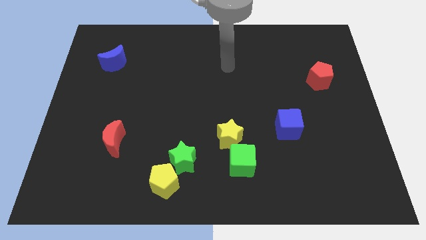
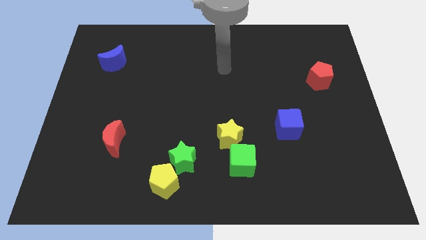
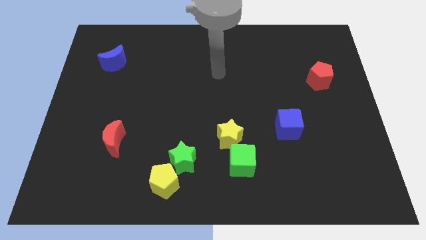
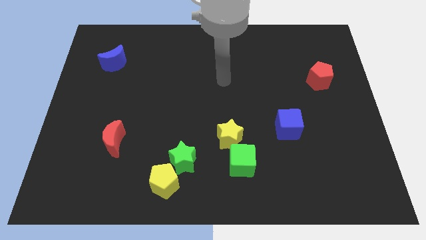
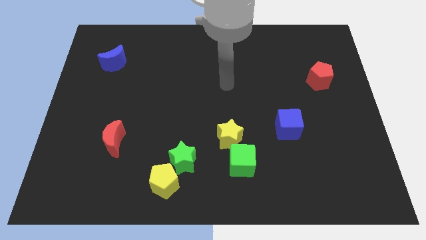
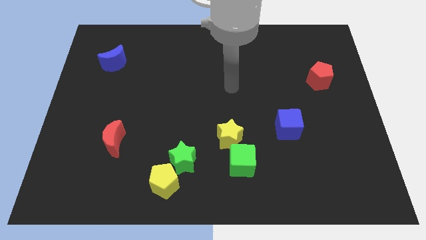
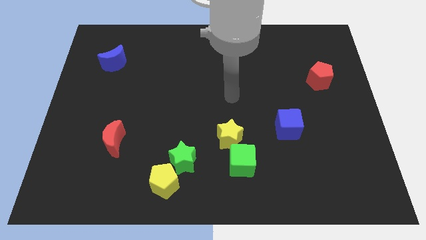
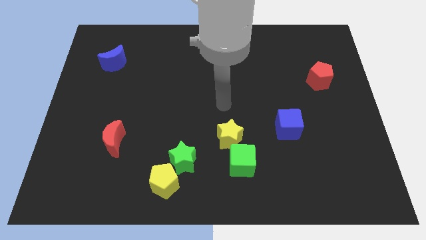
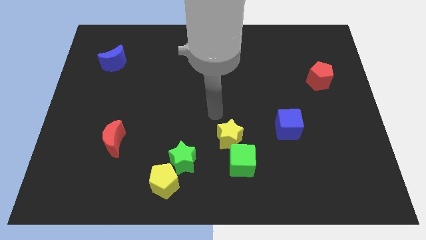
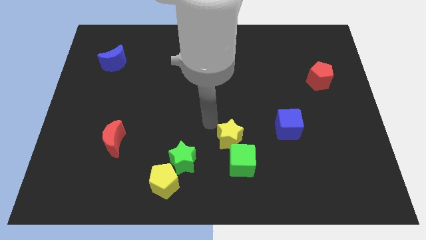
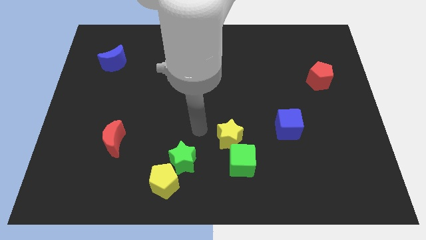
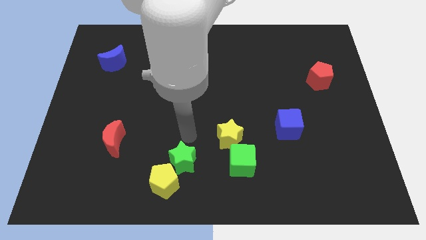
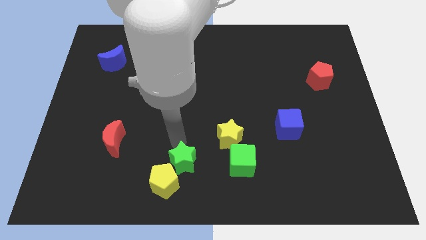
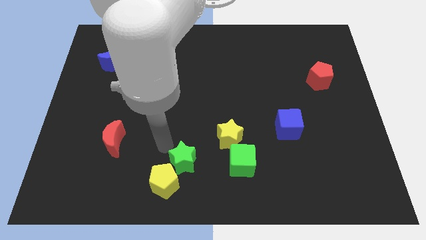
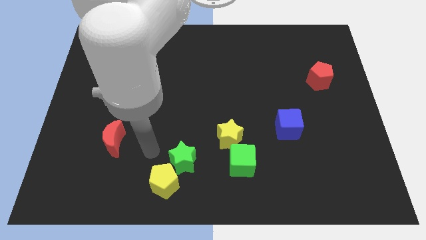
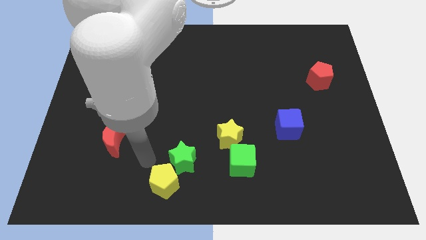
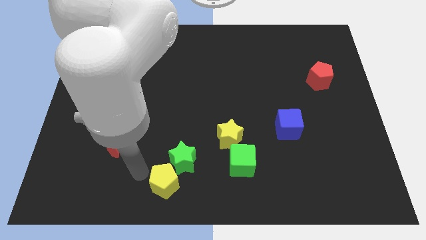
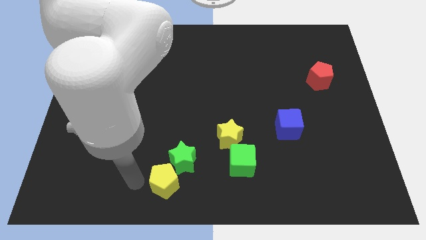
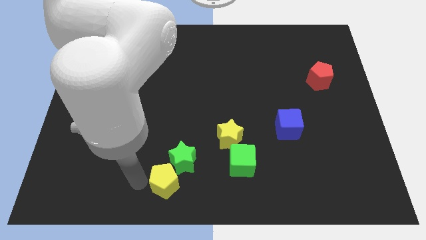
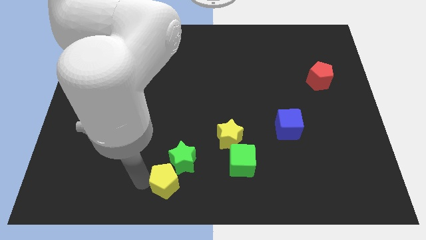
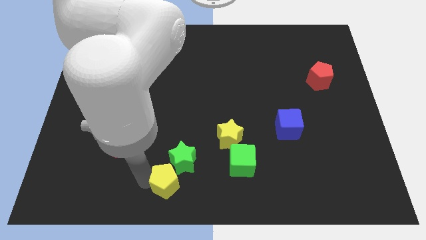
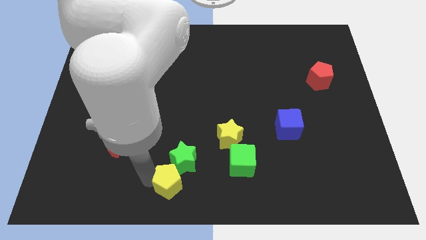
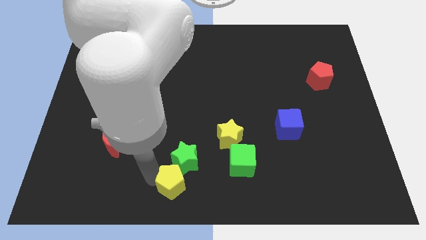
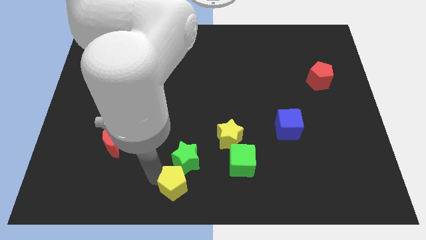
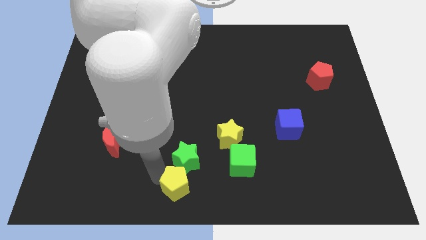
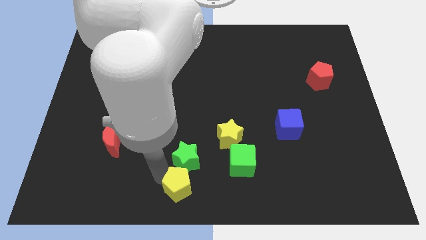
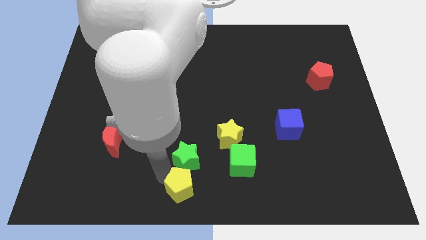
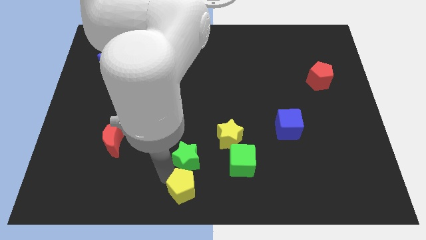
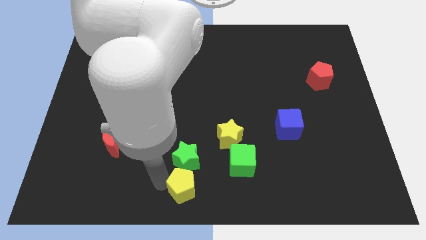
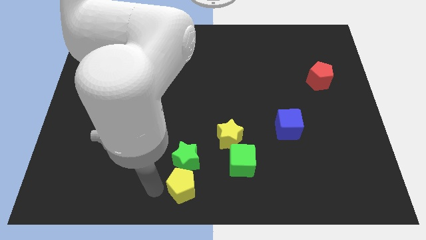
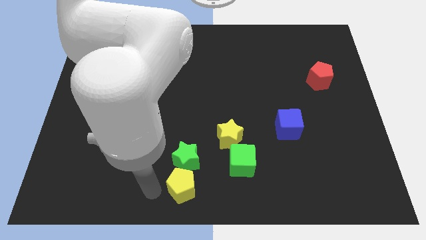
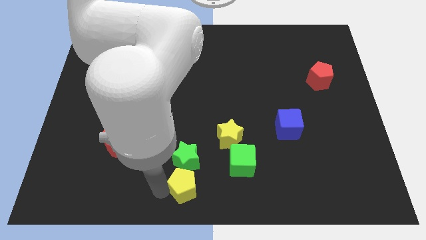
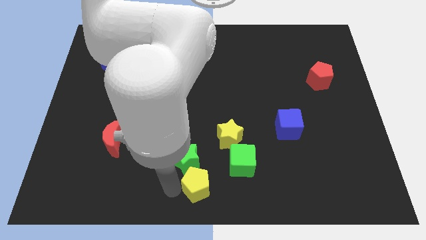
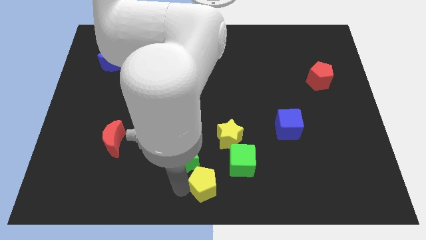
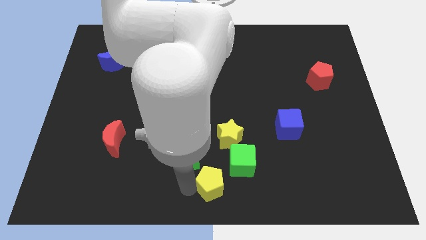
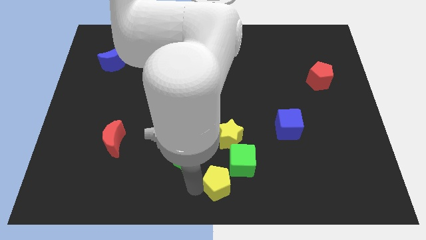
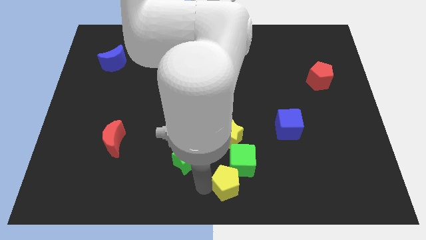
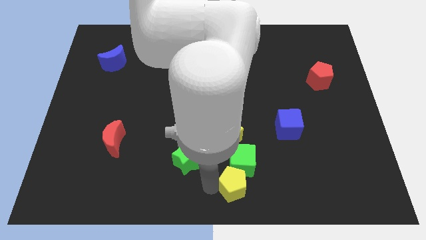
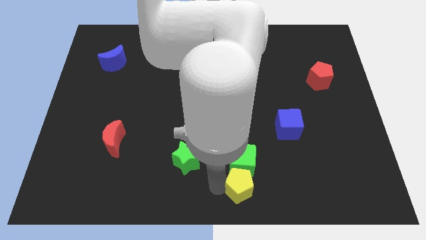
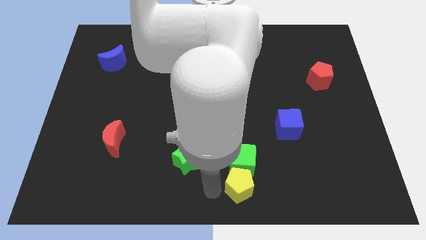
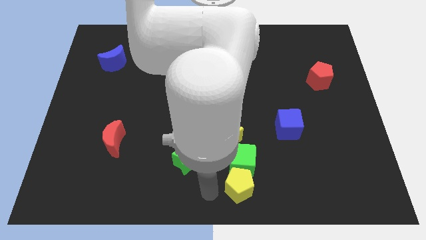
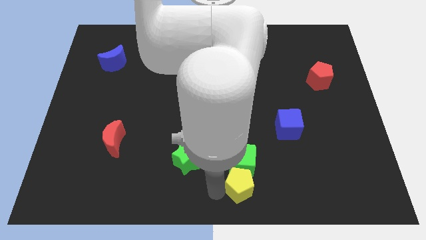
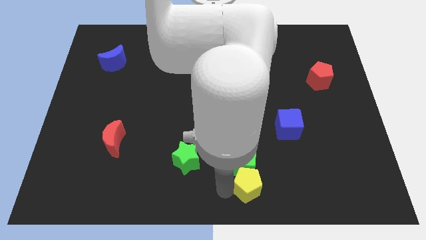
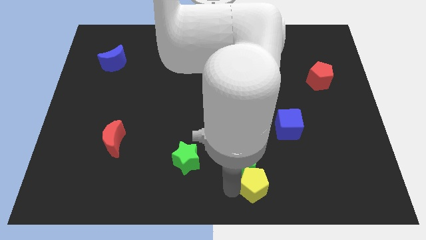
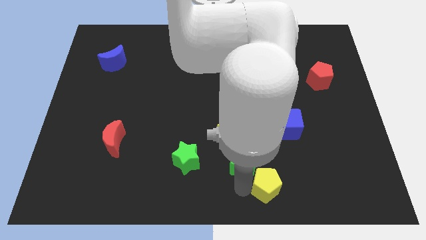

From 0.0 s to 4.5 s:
move the yellow pentagon right

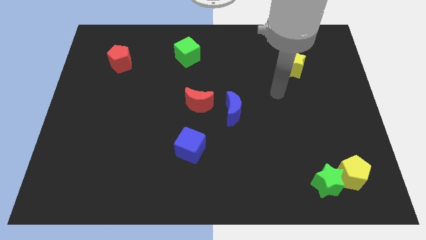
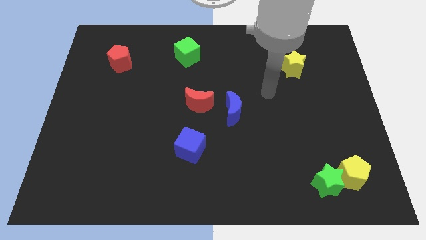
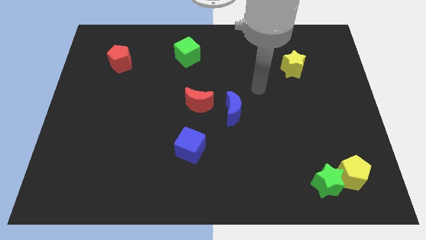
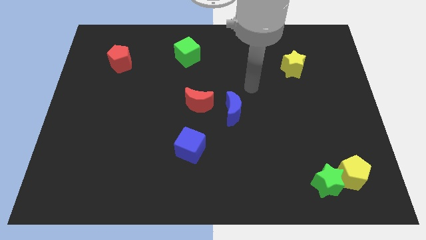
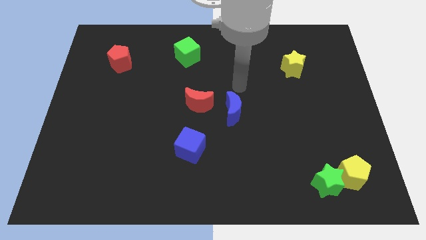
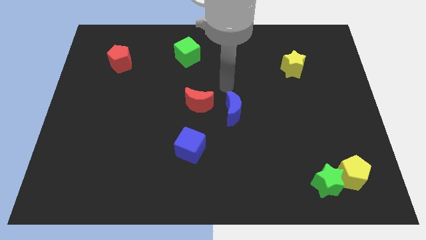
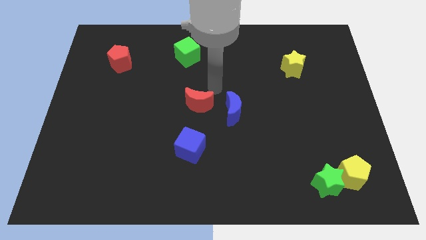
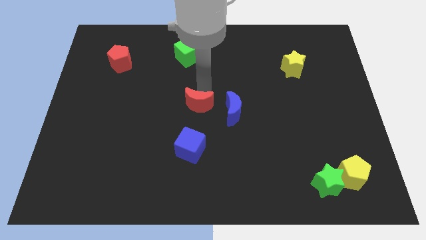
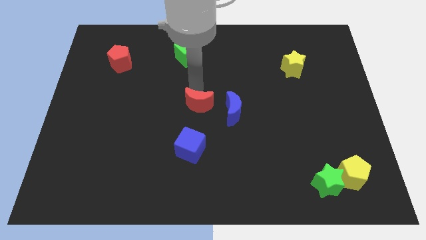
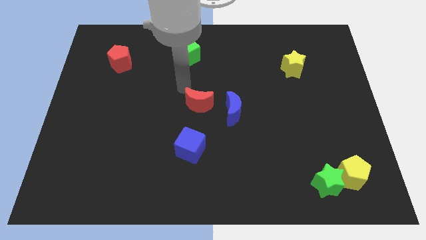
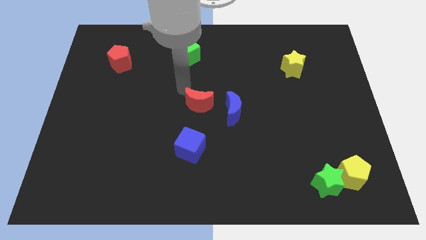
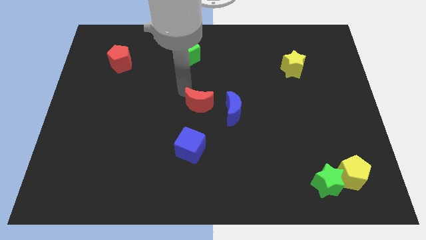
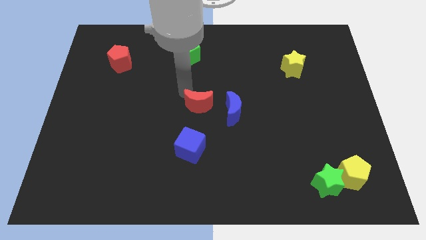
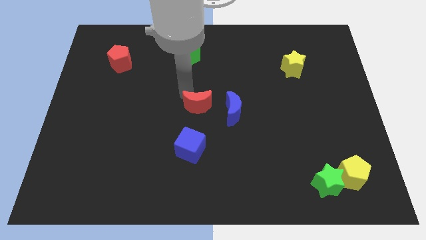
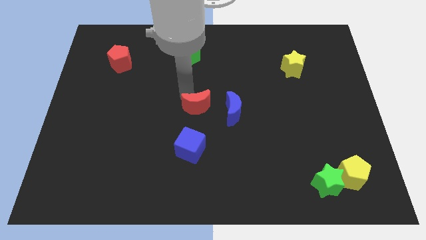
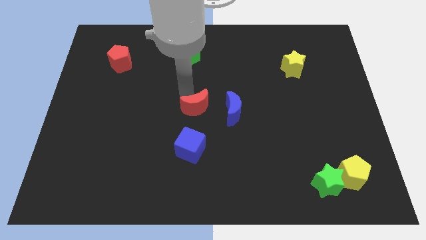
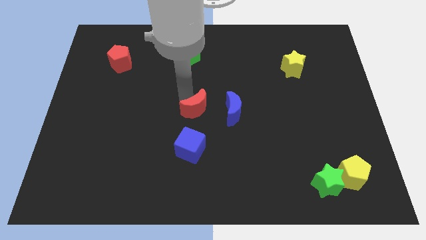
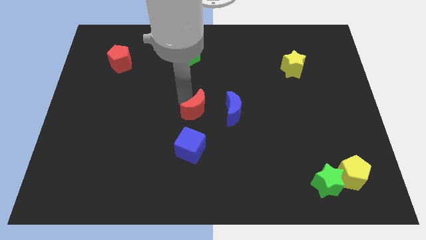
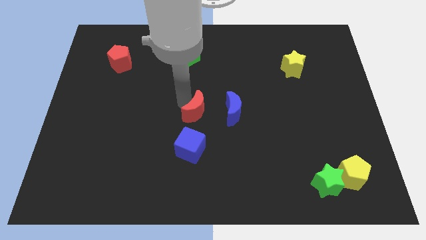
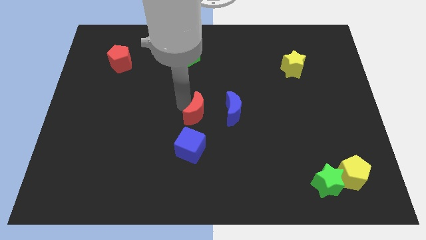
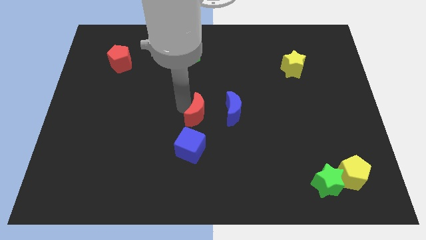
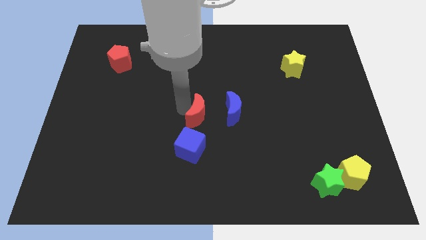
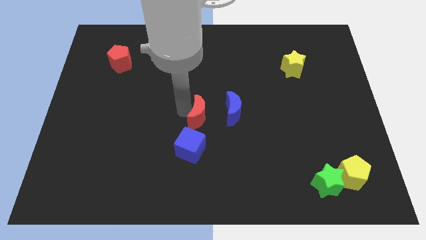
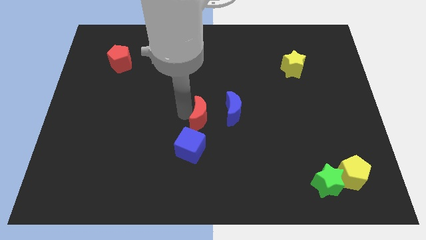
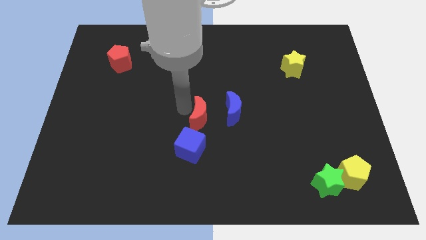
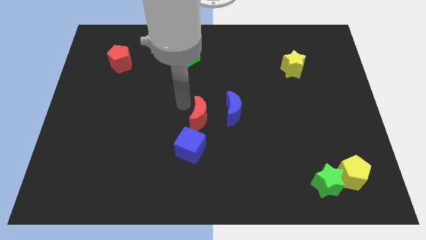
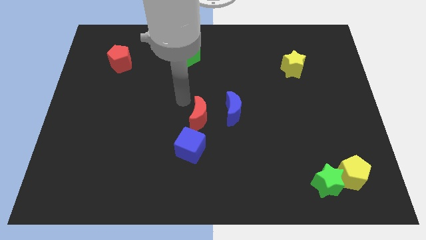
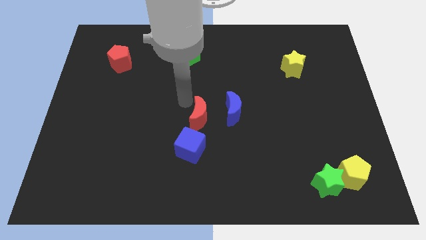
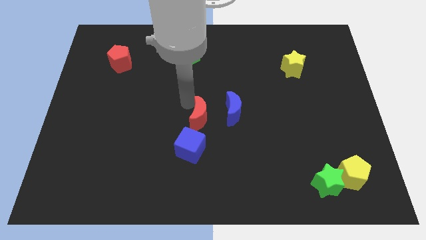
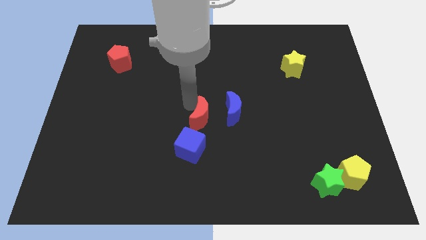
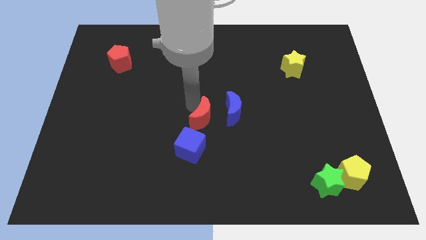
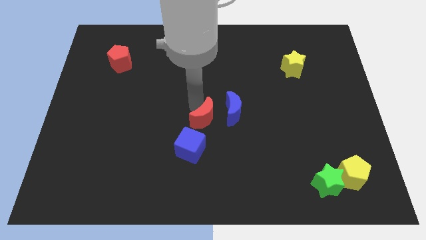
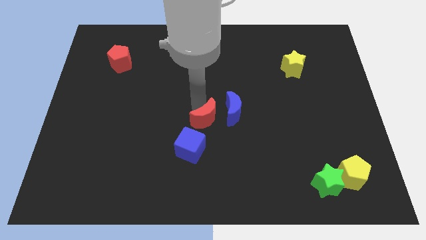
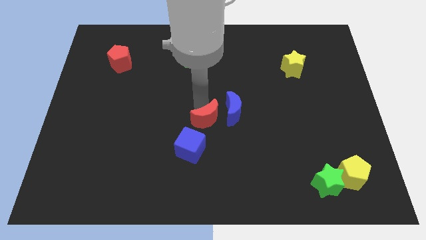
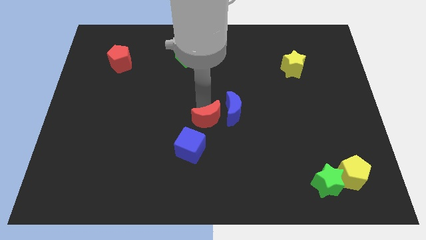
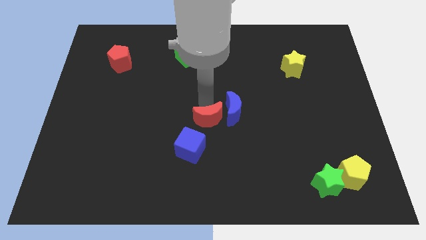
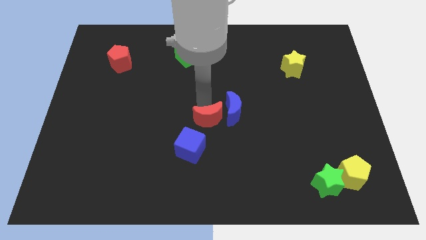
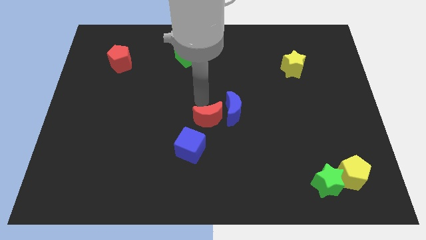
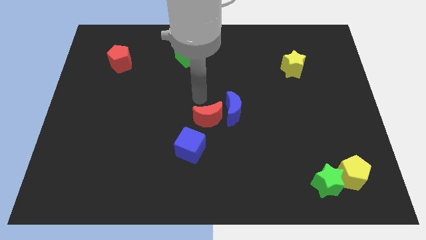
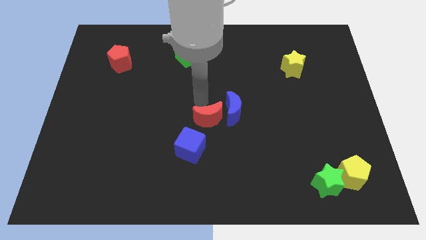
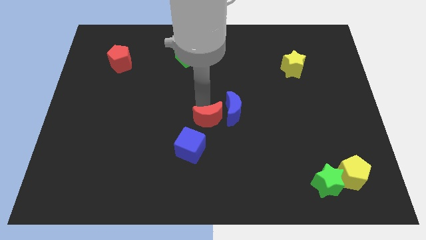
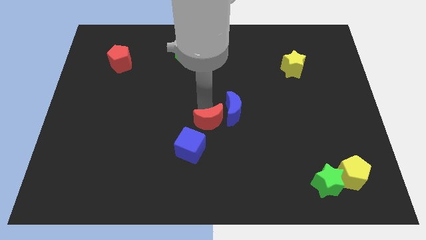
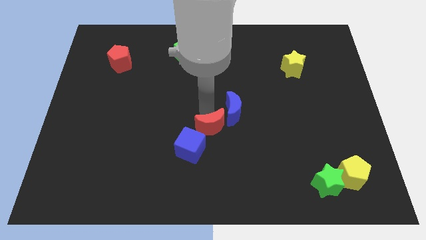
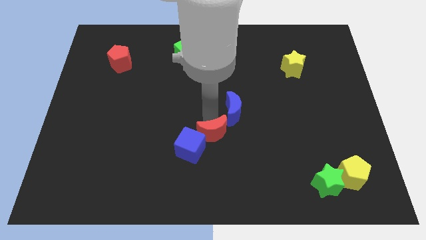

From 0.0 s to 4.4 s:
move the red moon a bit downwards
